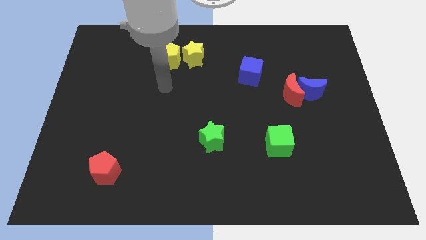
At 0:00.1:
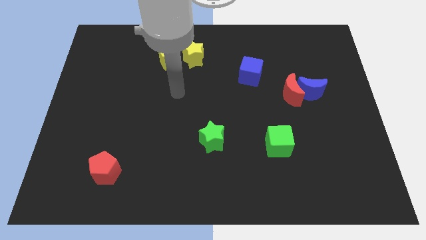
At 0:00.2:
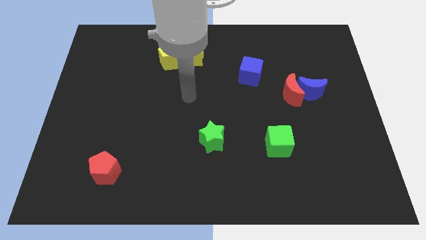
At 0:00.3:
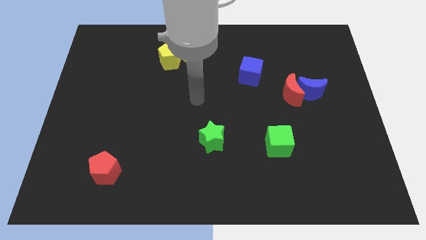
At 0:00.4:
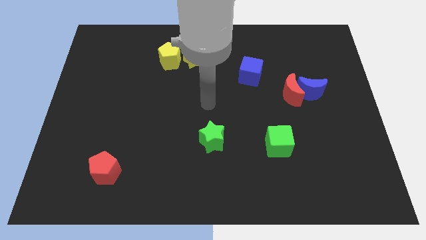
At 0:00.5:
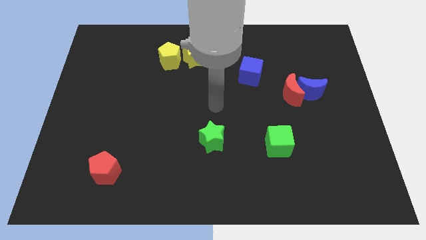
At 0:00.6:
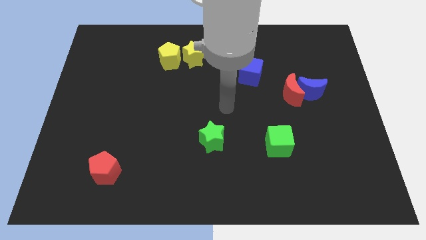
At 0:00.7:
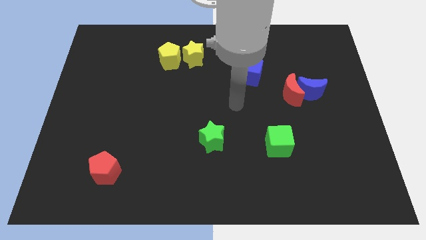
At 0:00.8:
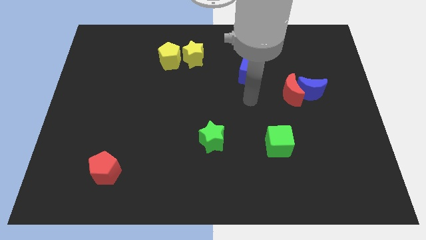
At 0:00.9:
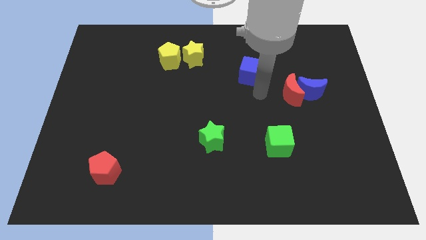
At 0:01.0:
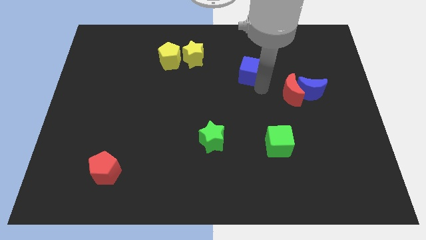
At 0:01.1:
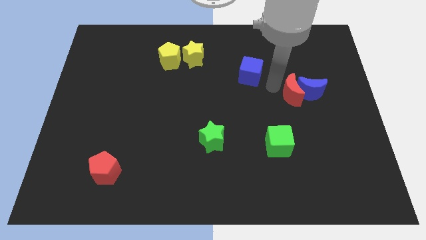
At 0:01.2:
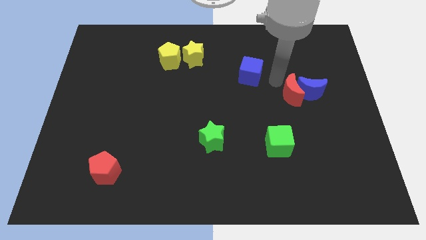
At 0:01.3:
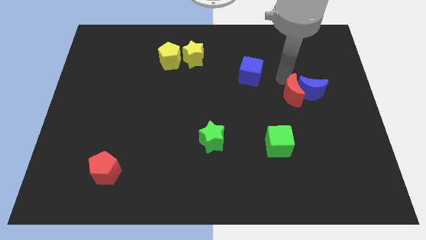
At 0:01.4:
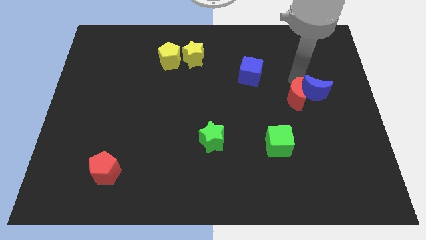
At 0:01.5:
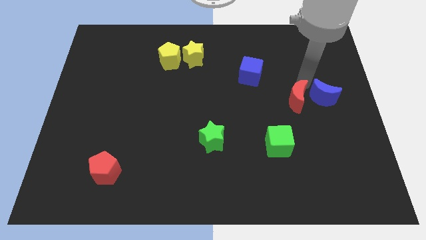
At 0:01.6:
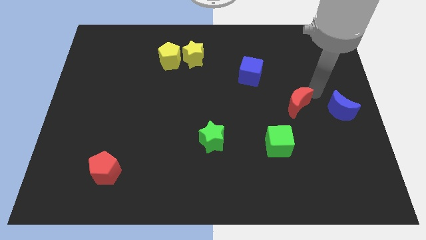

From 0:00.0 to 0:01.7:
move the red moon away from the blue moon

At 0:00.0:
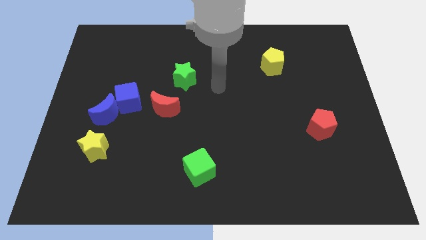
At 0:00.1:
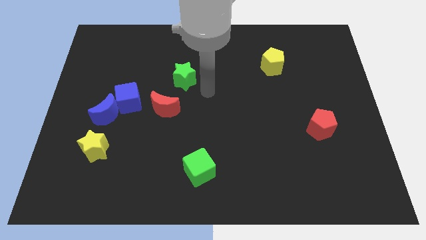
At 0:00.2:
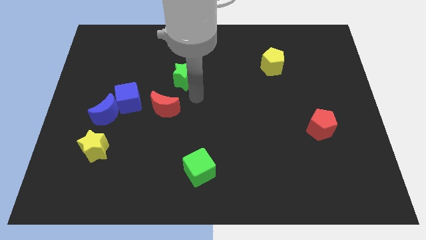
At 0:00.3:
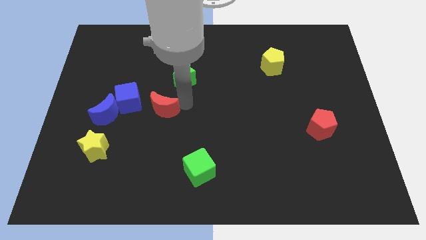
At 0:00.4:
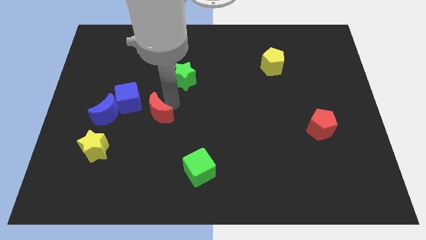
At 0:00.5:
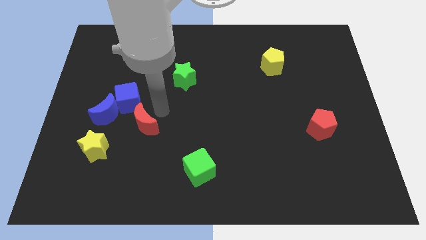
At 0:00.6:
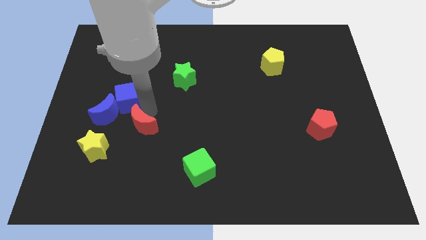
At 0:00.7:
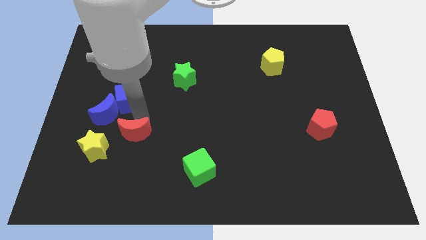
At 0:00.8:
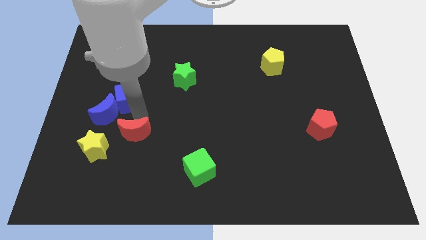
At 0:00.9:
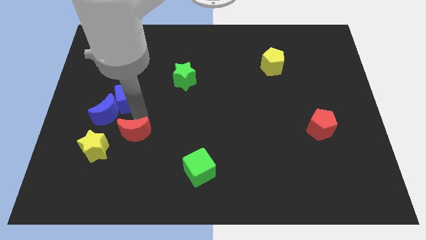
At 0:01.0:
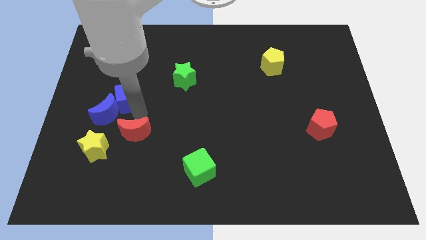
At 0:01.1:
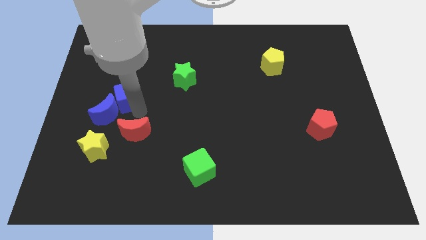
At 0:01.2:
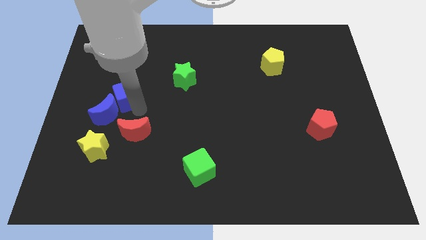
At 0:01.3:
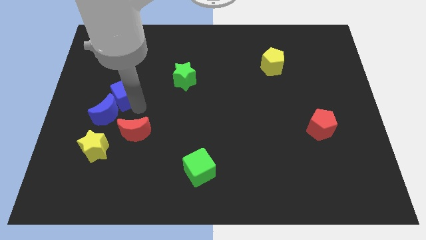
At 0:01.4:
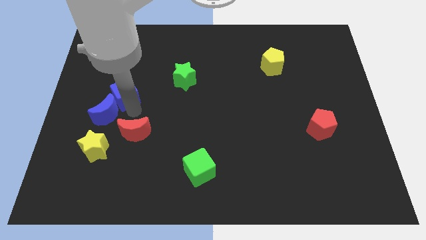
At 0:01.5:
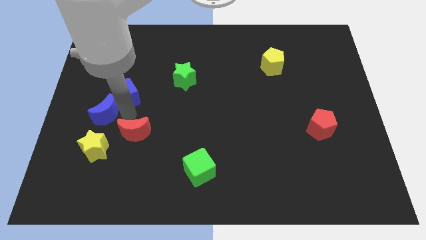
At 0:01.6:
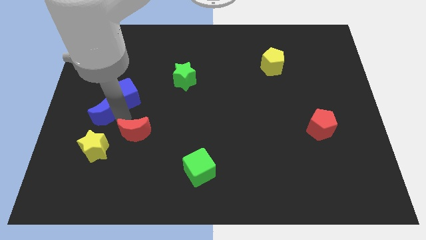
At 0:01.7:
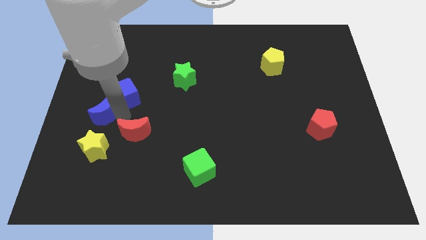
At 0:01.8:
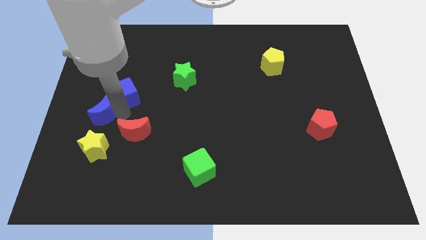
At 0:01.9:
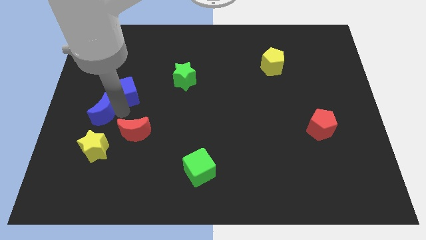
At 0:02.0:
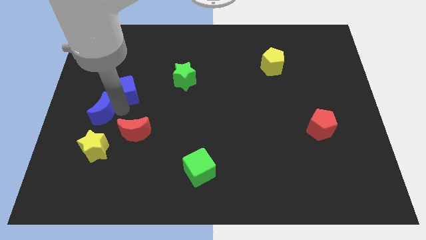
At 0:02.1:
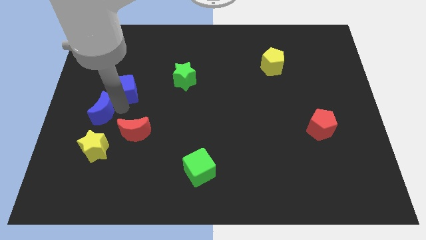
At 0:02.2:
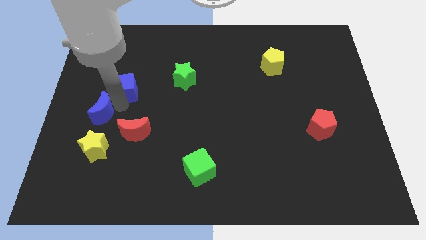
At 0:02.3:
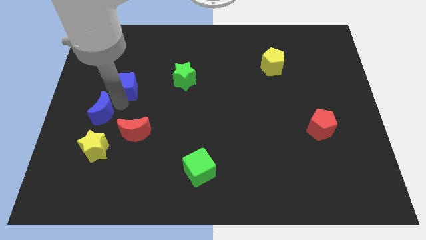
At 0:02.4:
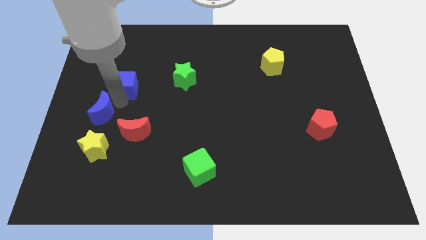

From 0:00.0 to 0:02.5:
separate the blue cube from the blue moon and red moon

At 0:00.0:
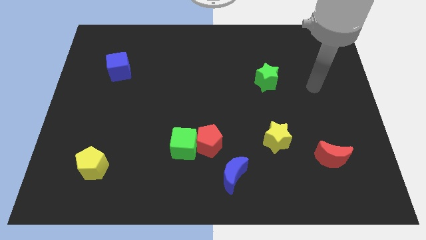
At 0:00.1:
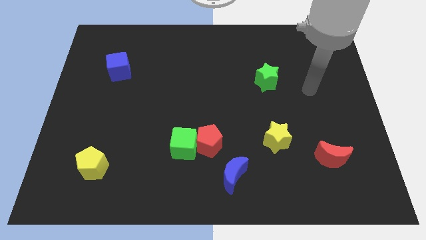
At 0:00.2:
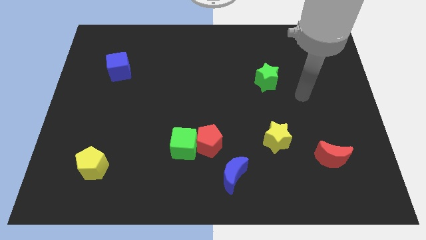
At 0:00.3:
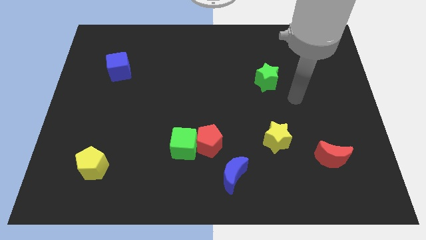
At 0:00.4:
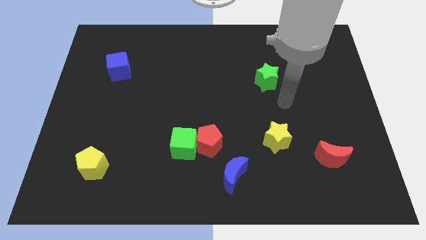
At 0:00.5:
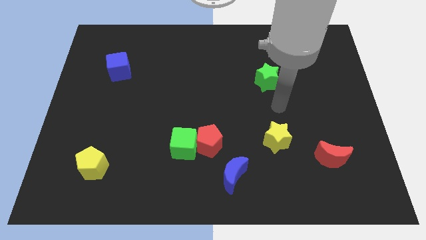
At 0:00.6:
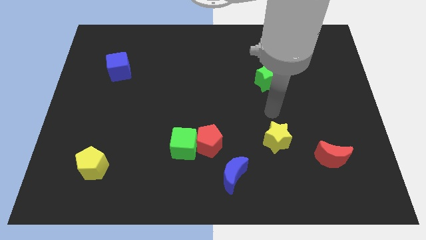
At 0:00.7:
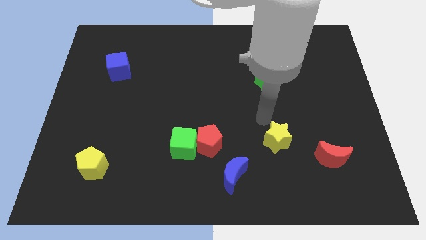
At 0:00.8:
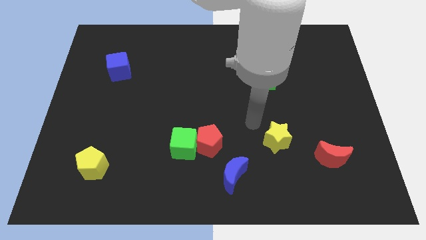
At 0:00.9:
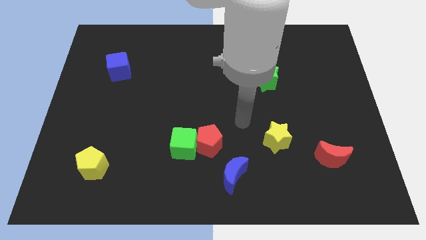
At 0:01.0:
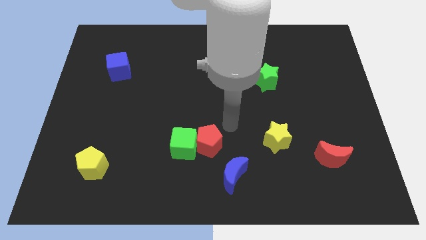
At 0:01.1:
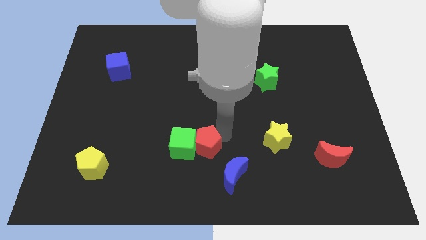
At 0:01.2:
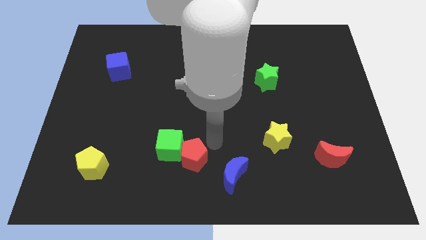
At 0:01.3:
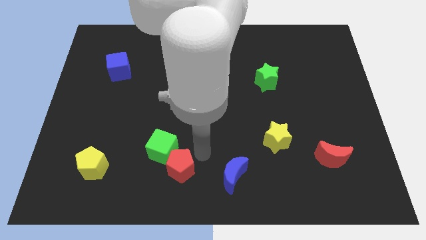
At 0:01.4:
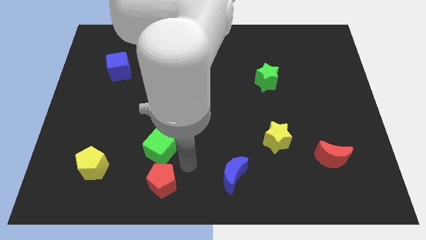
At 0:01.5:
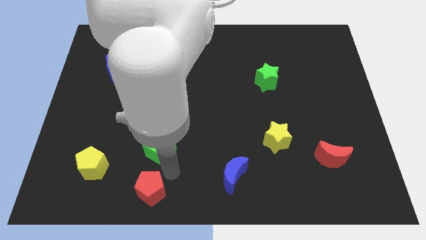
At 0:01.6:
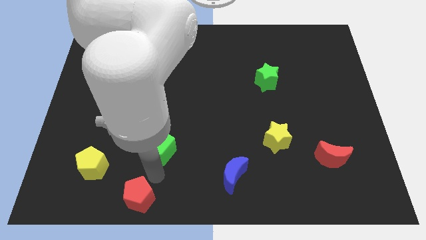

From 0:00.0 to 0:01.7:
pull the green cube apart from the red pentagon

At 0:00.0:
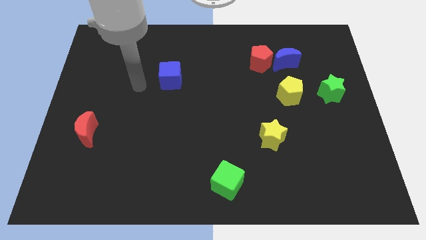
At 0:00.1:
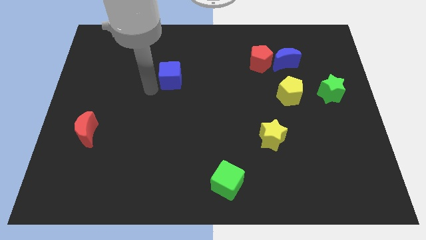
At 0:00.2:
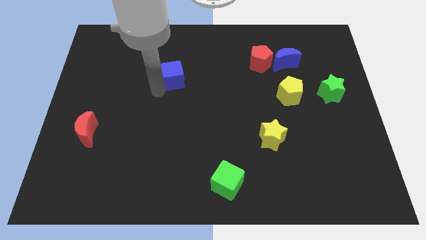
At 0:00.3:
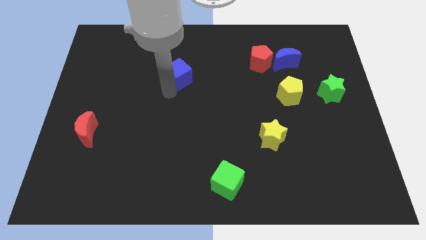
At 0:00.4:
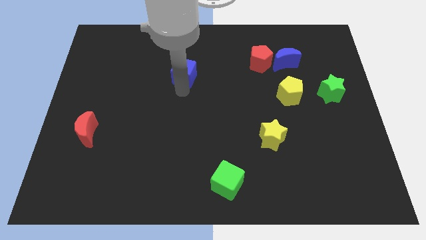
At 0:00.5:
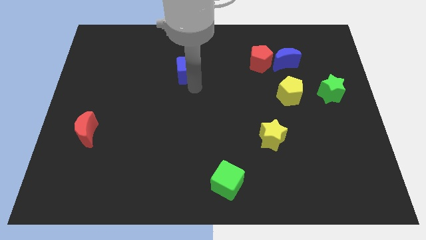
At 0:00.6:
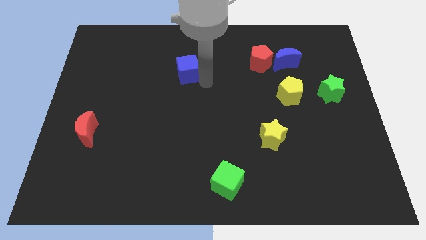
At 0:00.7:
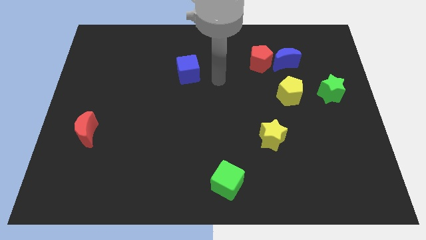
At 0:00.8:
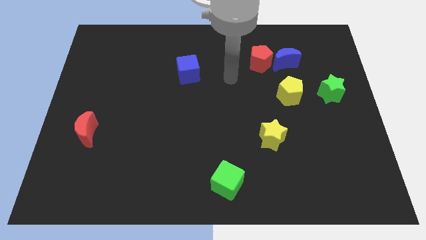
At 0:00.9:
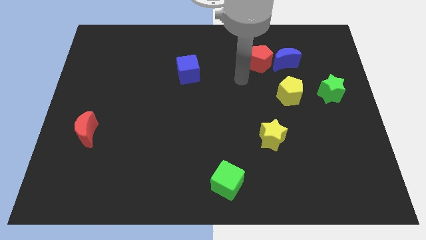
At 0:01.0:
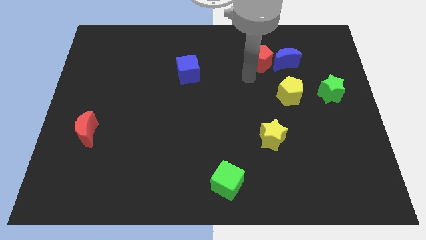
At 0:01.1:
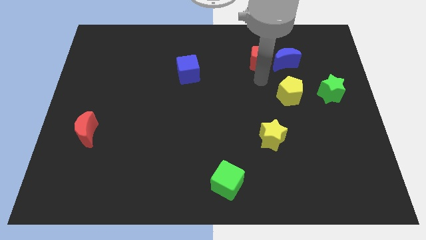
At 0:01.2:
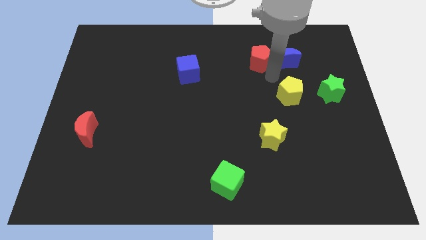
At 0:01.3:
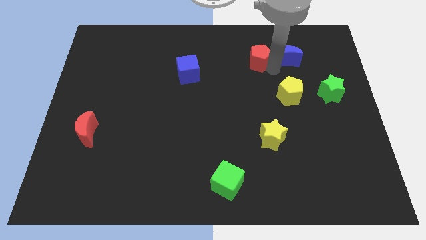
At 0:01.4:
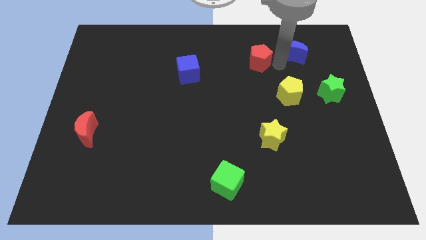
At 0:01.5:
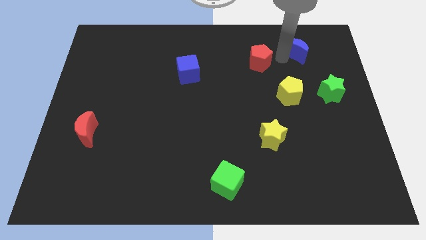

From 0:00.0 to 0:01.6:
pull the red pentagon apart from the blue moon

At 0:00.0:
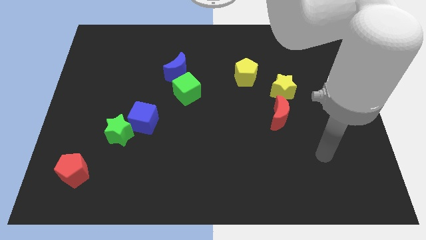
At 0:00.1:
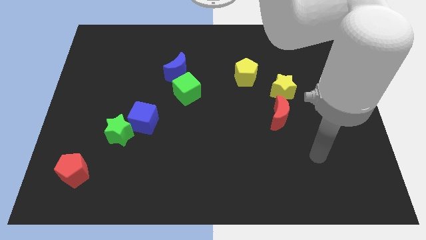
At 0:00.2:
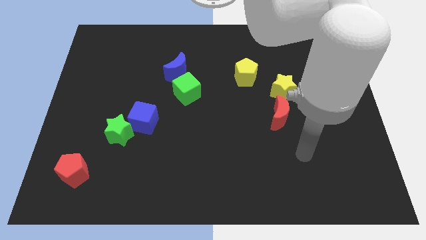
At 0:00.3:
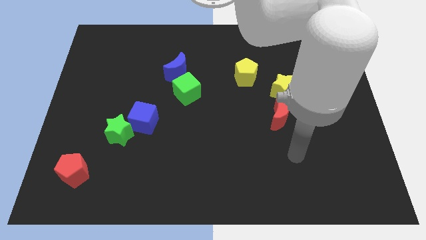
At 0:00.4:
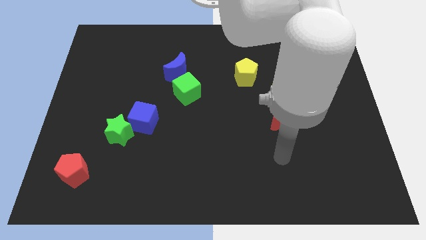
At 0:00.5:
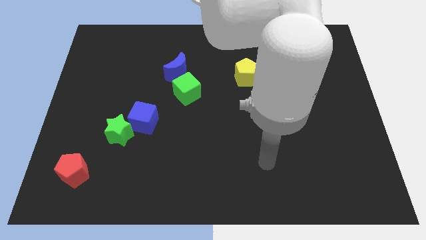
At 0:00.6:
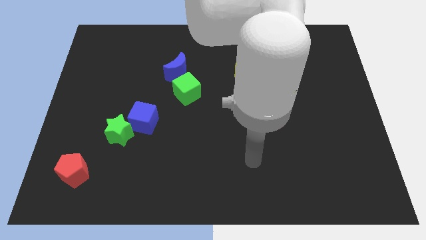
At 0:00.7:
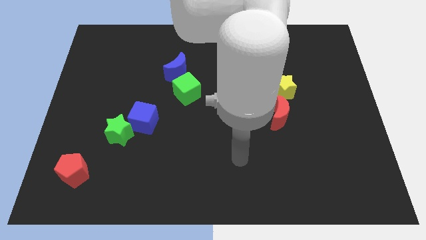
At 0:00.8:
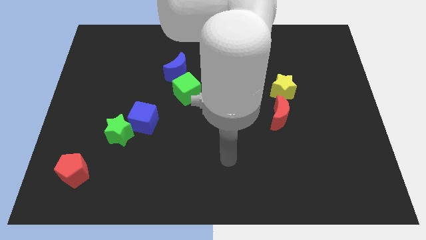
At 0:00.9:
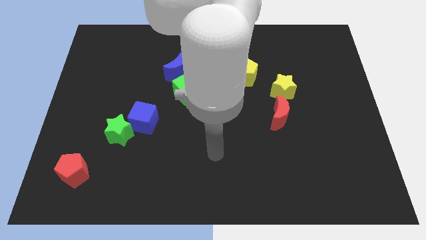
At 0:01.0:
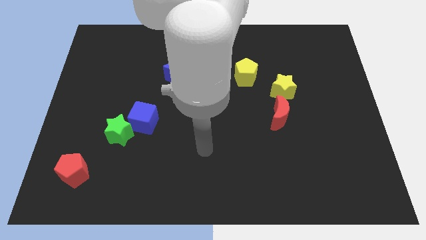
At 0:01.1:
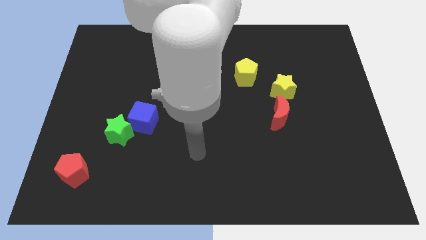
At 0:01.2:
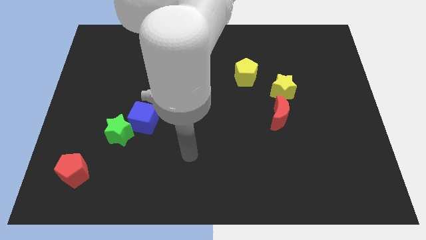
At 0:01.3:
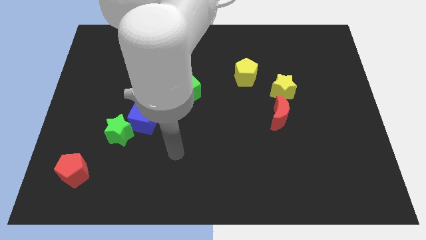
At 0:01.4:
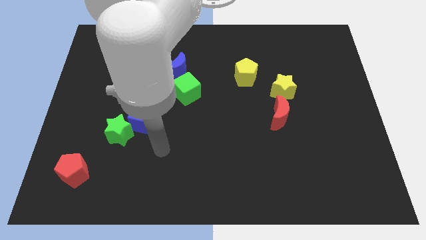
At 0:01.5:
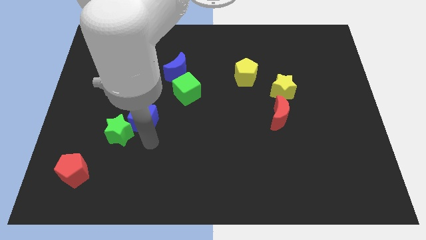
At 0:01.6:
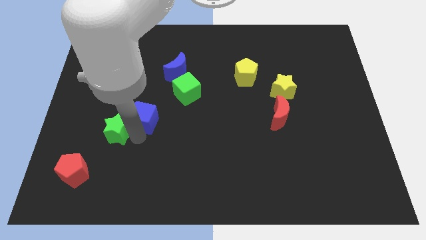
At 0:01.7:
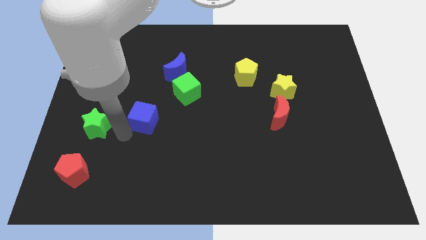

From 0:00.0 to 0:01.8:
separate the blue cube from the green star

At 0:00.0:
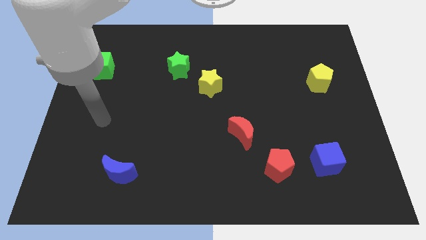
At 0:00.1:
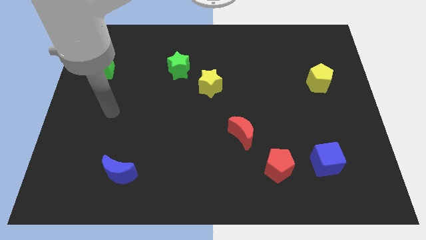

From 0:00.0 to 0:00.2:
separate the green star from the yellow star
